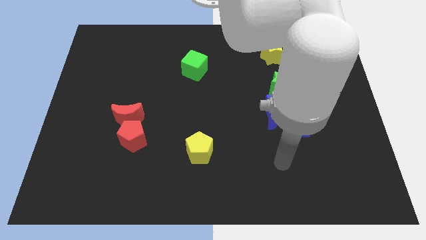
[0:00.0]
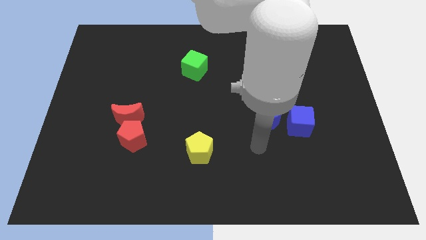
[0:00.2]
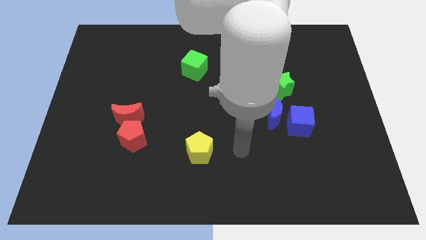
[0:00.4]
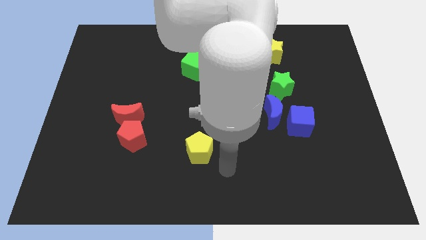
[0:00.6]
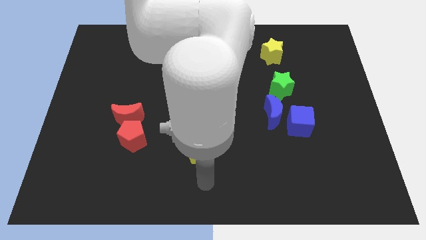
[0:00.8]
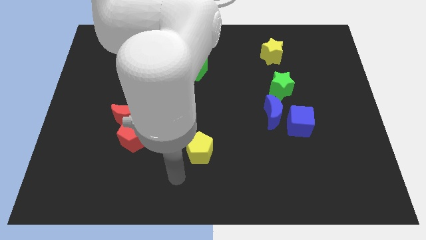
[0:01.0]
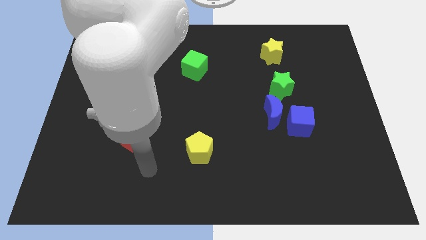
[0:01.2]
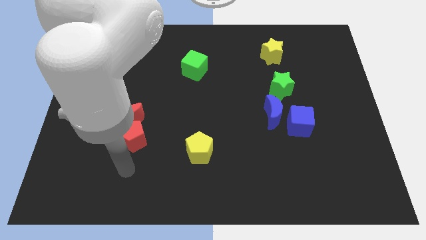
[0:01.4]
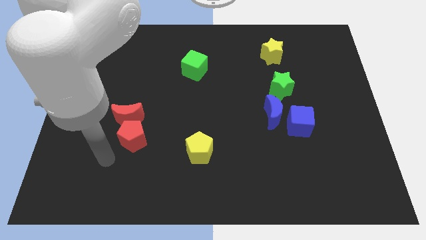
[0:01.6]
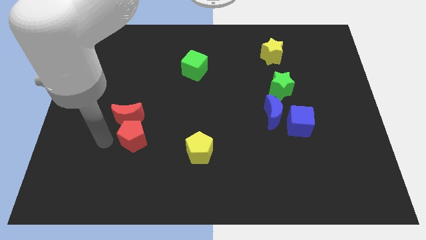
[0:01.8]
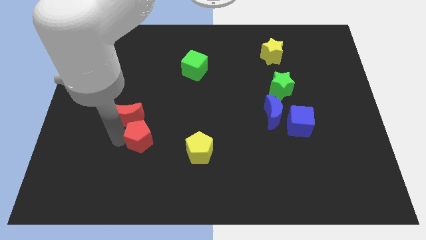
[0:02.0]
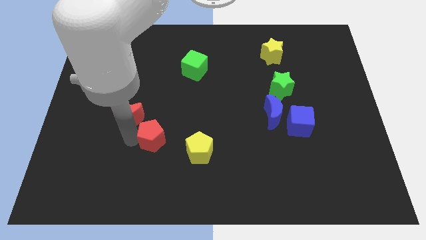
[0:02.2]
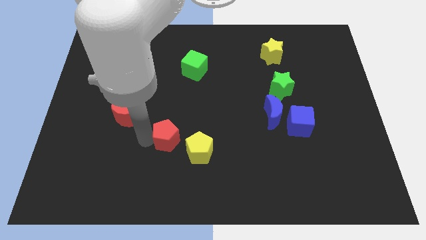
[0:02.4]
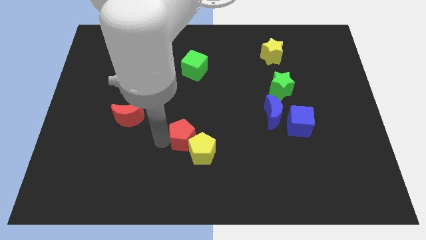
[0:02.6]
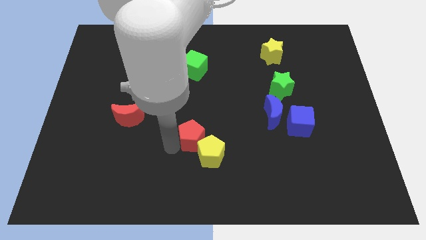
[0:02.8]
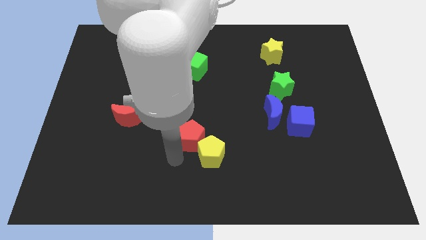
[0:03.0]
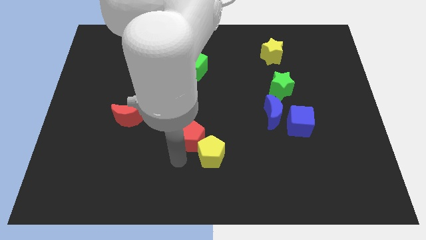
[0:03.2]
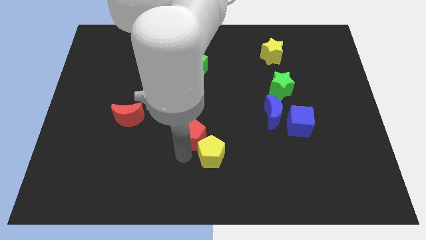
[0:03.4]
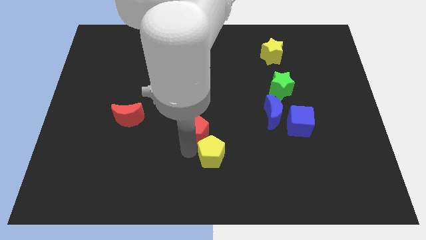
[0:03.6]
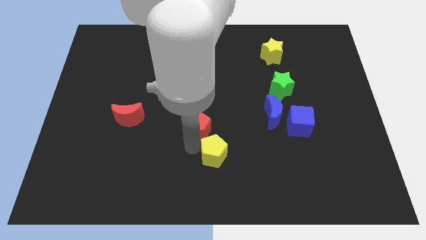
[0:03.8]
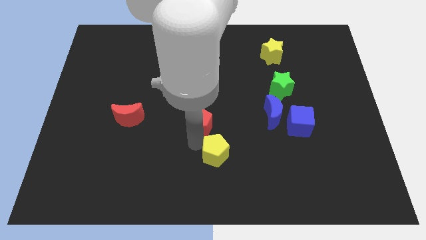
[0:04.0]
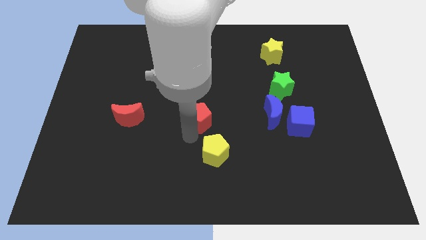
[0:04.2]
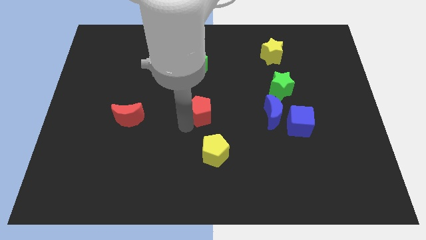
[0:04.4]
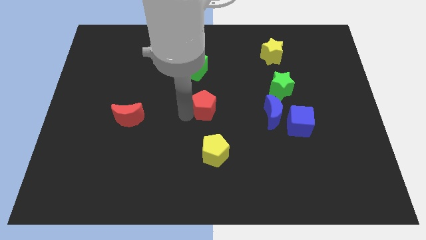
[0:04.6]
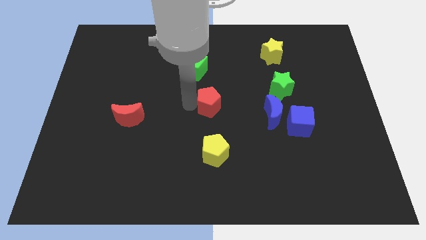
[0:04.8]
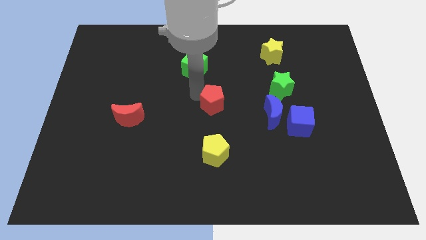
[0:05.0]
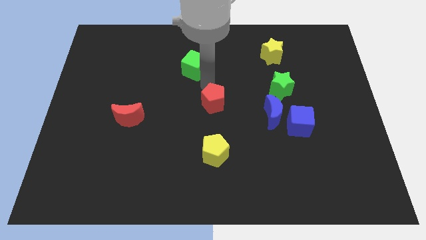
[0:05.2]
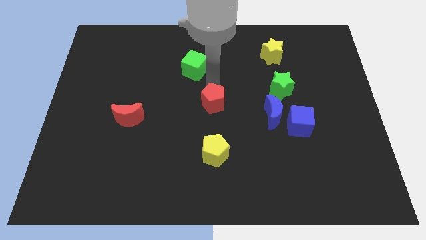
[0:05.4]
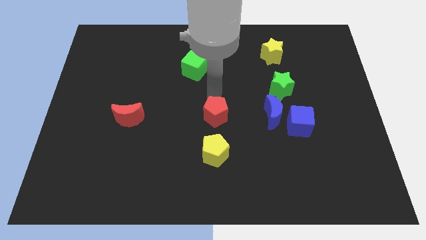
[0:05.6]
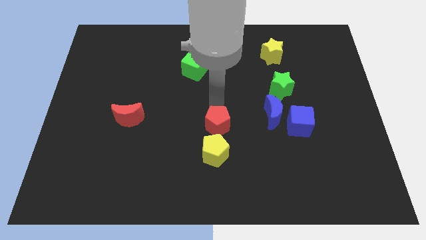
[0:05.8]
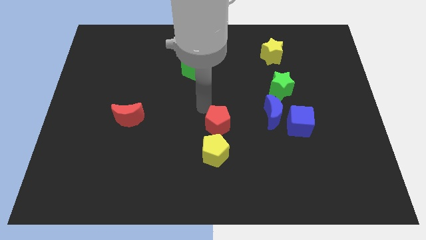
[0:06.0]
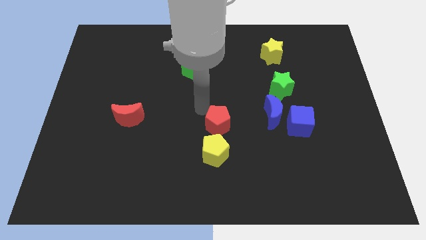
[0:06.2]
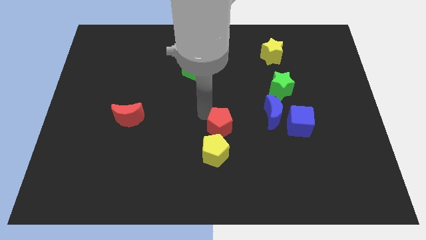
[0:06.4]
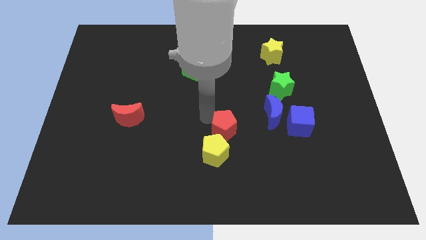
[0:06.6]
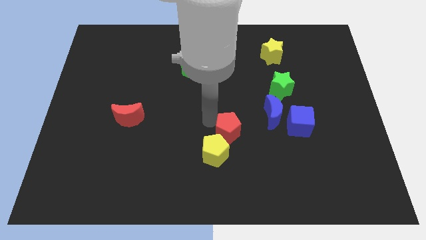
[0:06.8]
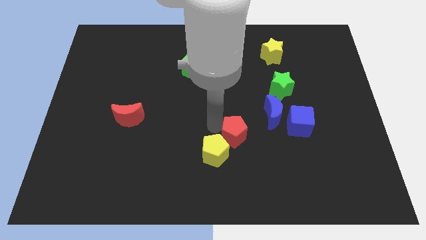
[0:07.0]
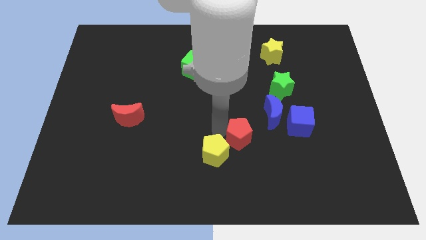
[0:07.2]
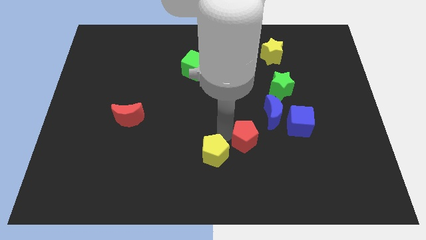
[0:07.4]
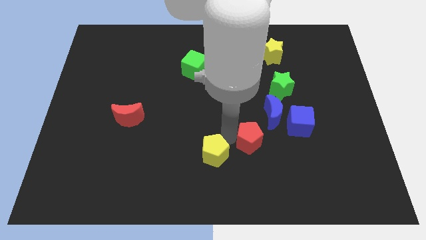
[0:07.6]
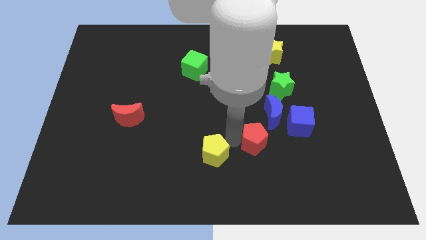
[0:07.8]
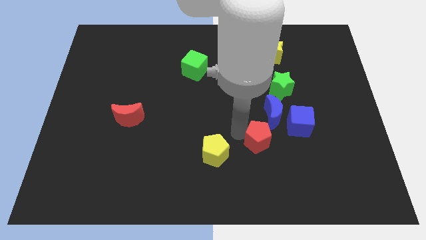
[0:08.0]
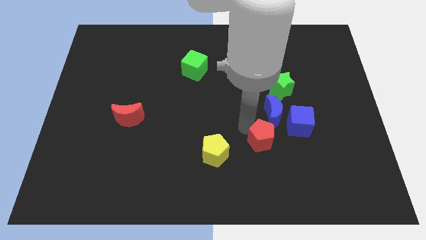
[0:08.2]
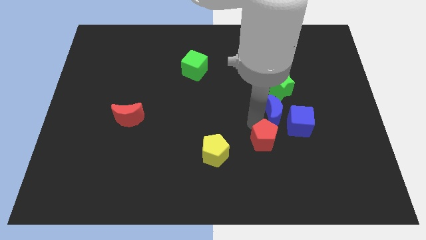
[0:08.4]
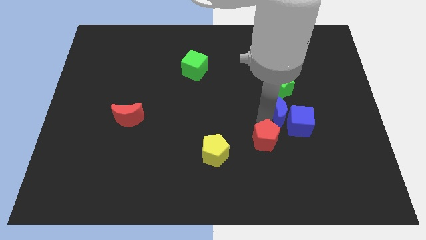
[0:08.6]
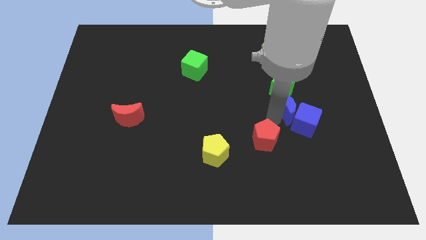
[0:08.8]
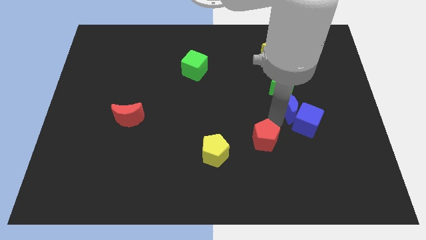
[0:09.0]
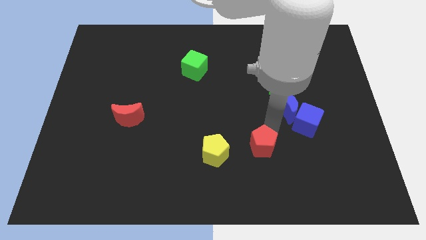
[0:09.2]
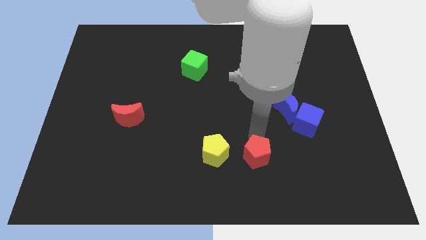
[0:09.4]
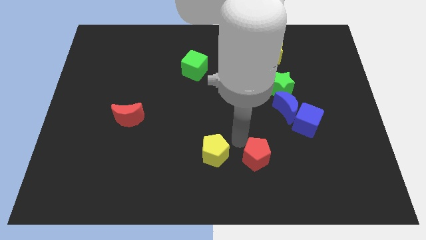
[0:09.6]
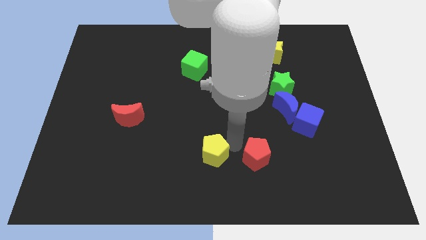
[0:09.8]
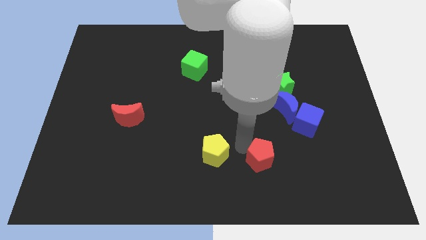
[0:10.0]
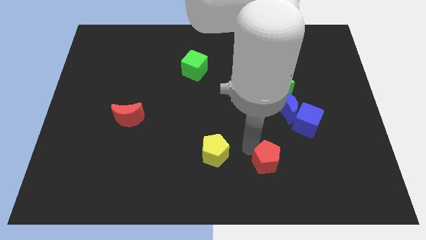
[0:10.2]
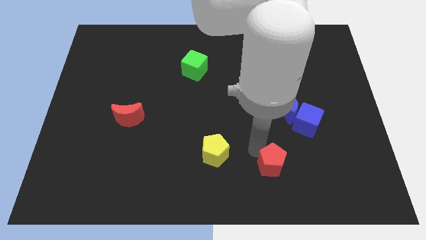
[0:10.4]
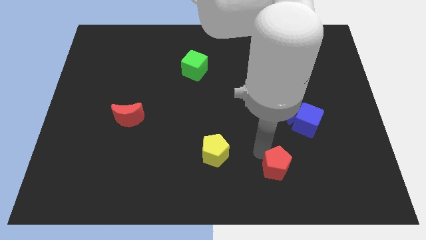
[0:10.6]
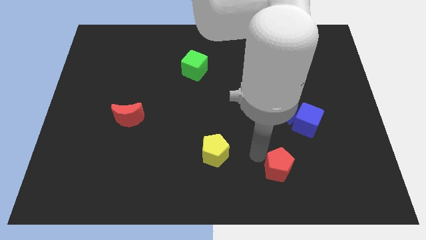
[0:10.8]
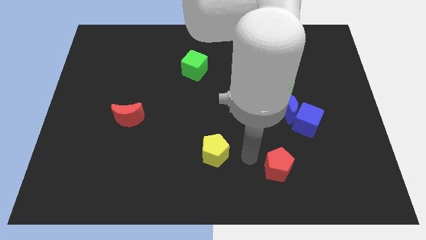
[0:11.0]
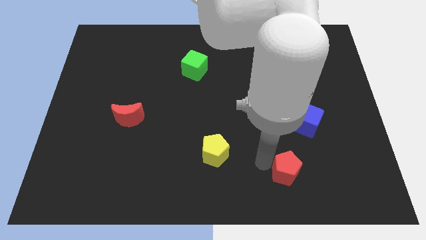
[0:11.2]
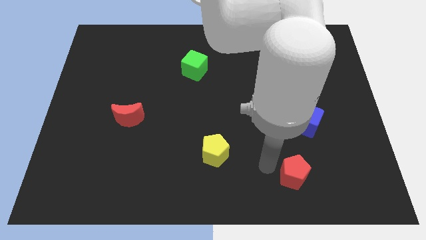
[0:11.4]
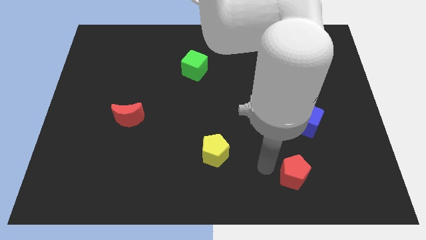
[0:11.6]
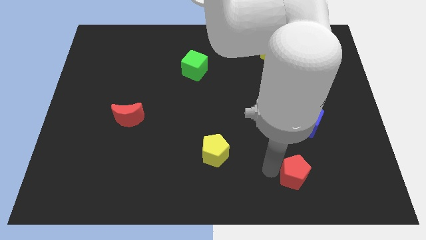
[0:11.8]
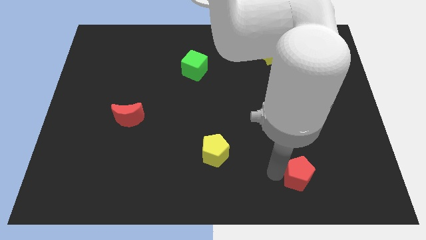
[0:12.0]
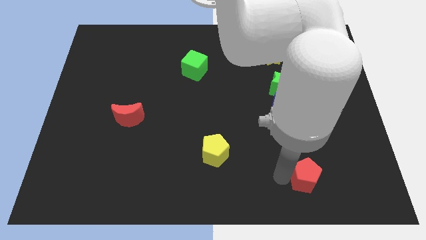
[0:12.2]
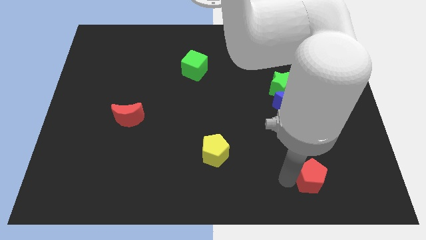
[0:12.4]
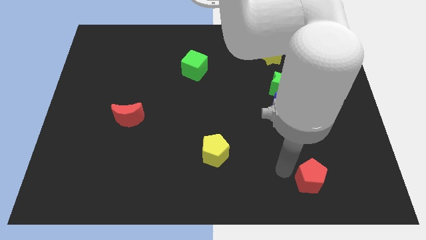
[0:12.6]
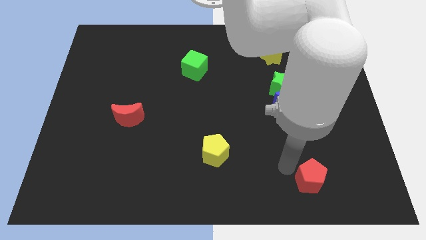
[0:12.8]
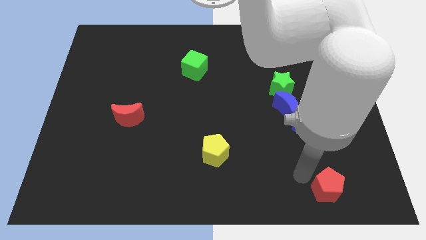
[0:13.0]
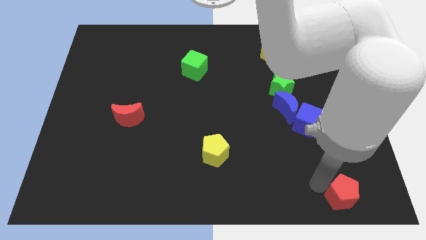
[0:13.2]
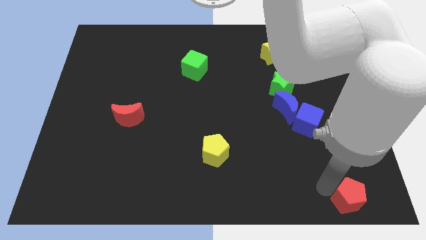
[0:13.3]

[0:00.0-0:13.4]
put the red pentagon to the bottom right

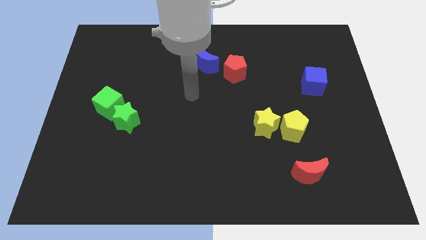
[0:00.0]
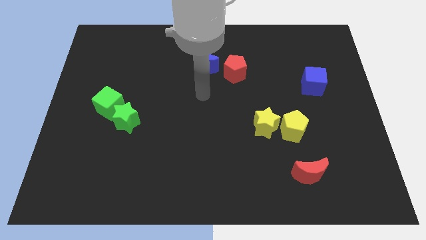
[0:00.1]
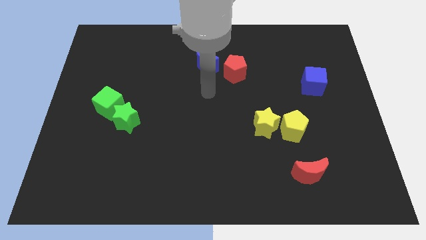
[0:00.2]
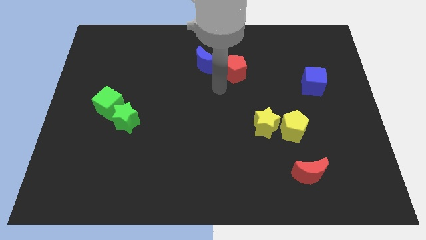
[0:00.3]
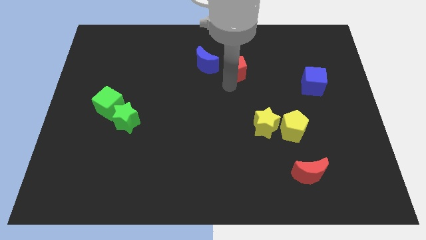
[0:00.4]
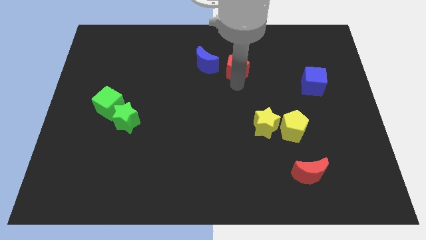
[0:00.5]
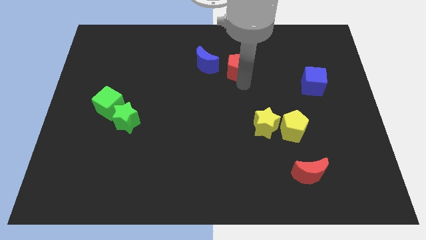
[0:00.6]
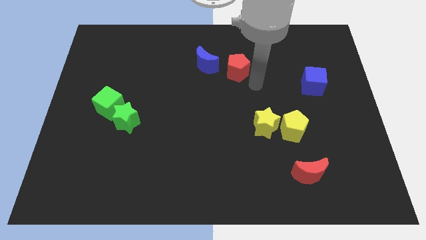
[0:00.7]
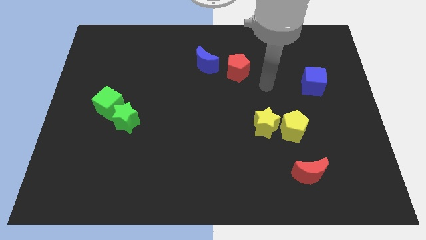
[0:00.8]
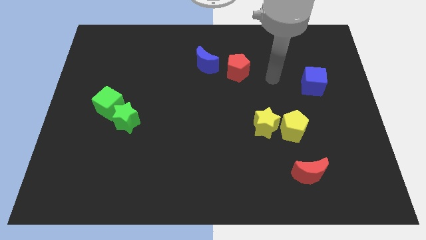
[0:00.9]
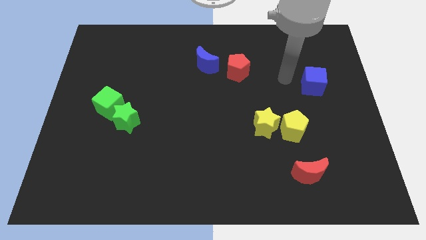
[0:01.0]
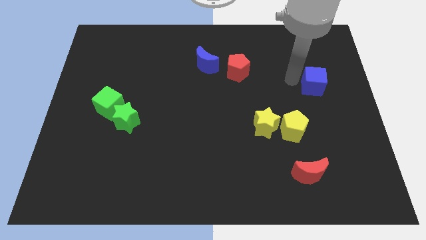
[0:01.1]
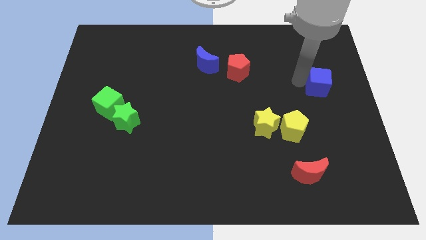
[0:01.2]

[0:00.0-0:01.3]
put the blue cube to the right side
